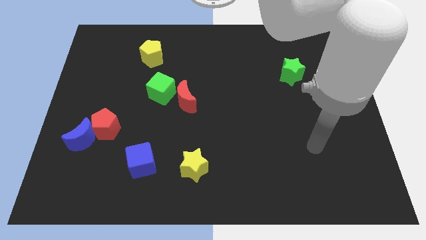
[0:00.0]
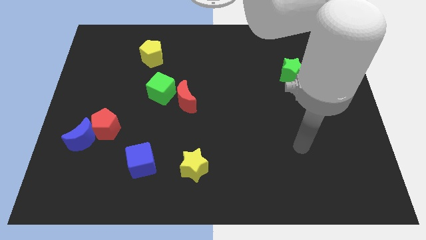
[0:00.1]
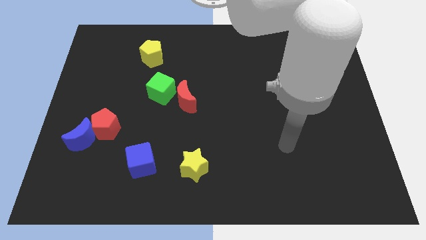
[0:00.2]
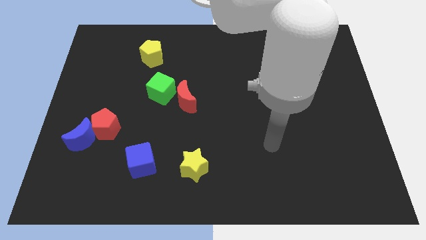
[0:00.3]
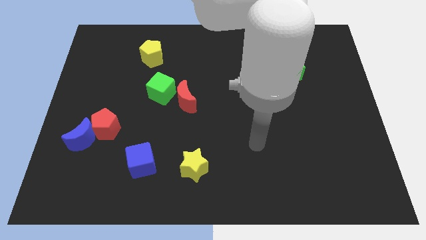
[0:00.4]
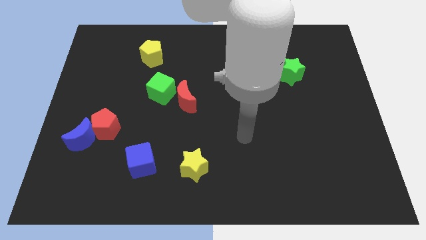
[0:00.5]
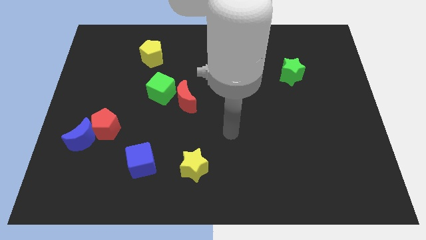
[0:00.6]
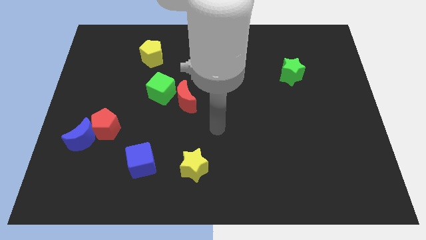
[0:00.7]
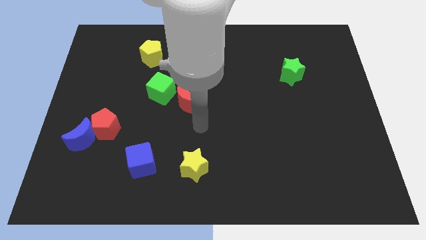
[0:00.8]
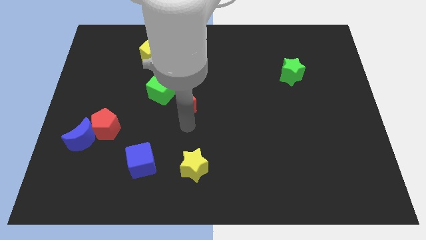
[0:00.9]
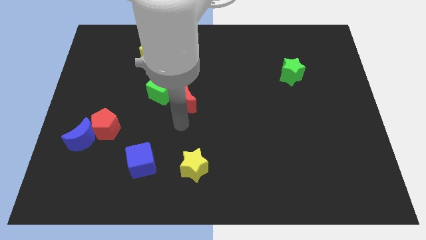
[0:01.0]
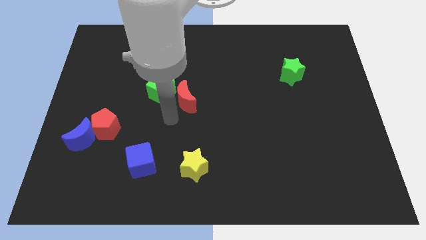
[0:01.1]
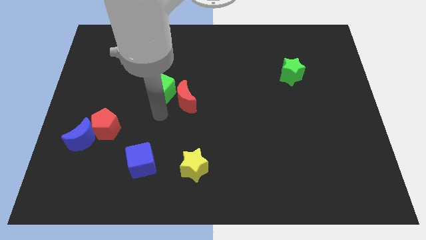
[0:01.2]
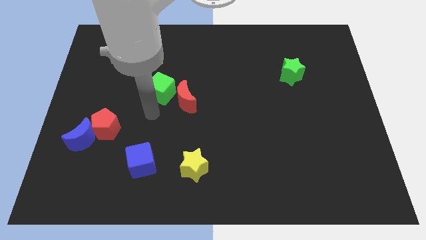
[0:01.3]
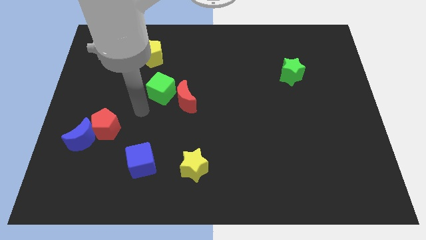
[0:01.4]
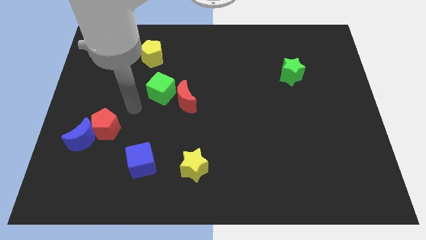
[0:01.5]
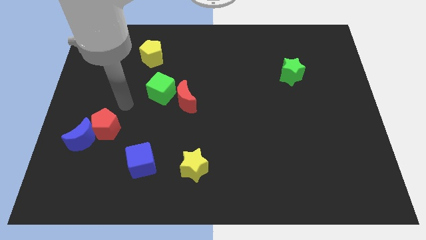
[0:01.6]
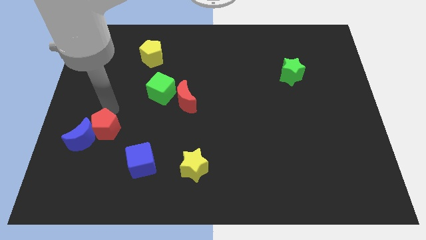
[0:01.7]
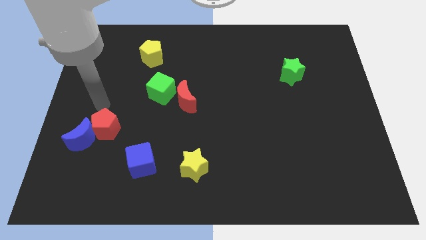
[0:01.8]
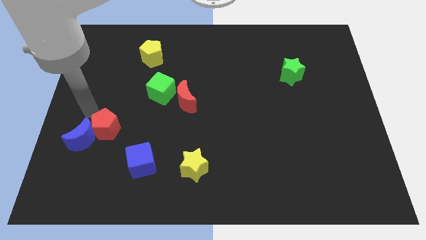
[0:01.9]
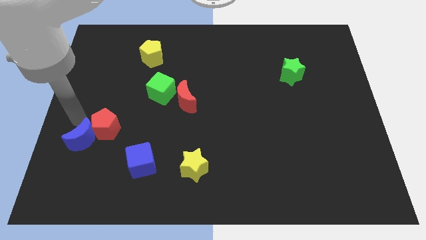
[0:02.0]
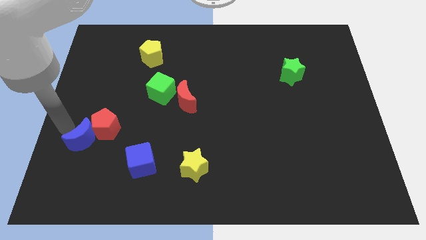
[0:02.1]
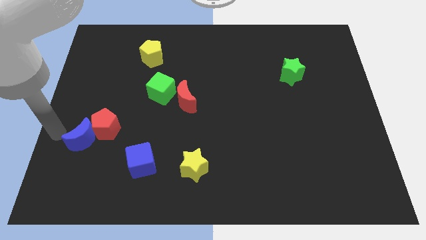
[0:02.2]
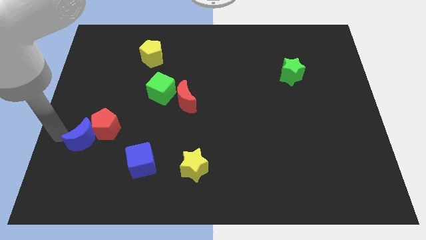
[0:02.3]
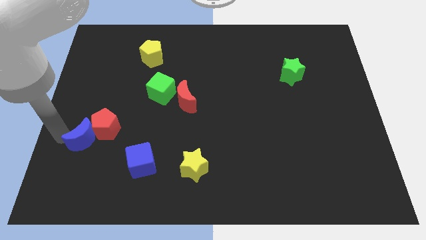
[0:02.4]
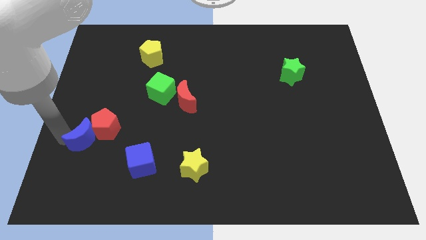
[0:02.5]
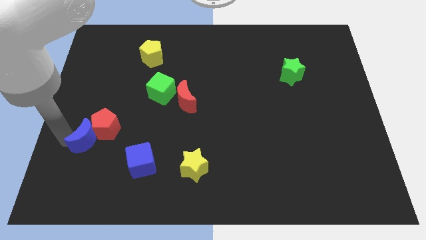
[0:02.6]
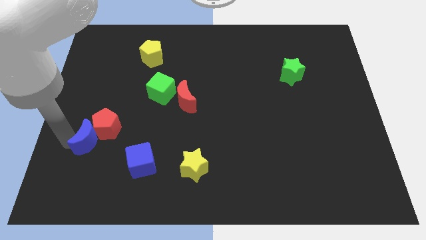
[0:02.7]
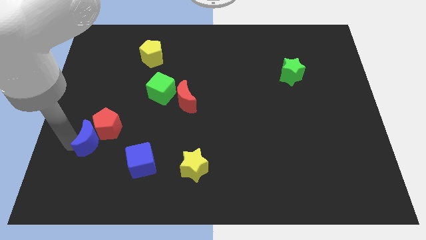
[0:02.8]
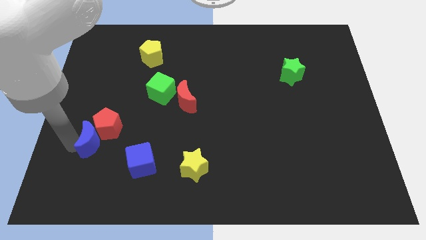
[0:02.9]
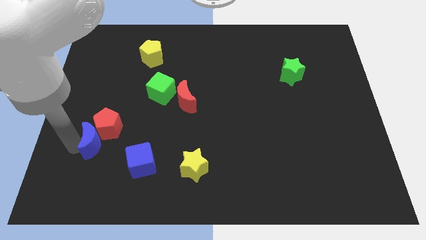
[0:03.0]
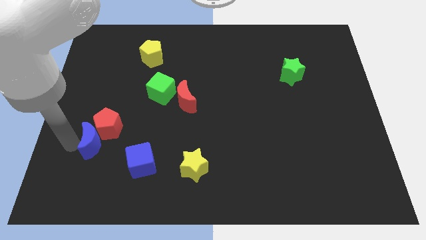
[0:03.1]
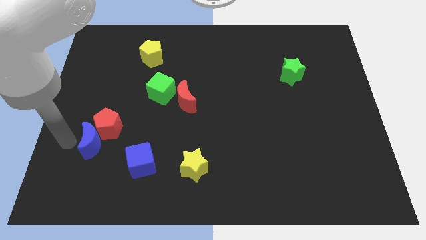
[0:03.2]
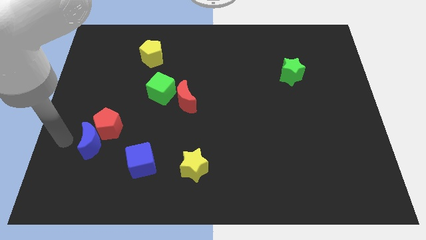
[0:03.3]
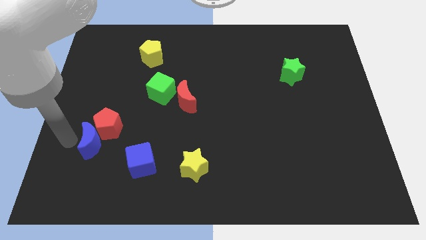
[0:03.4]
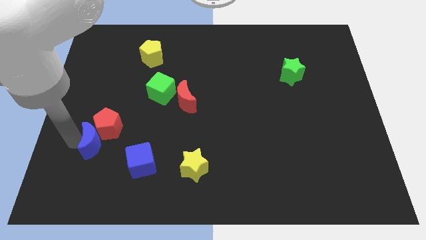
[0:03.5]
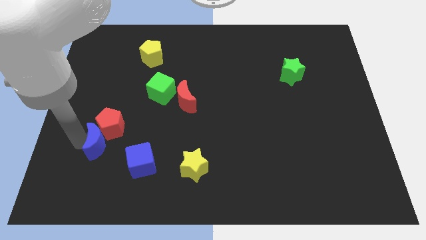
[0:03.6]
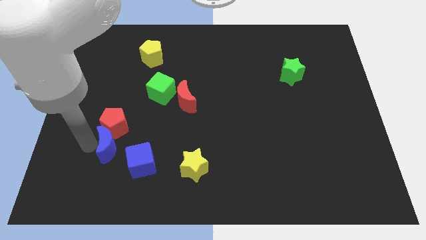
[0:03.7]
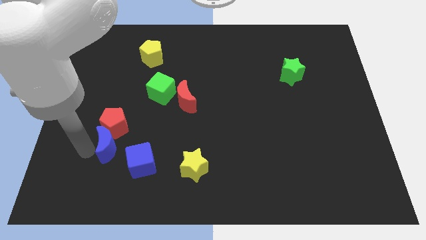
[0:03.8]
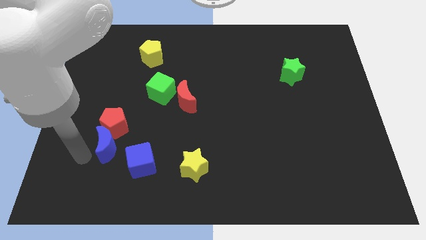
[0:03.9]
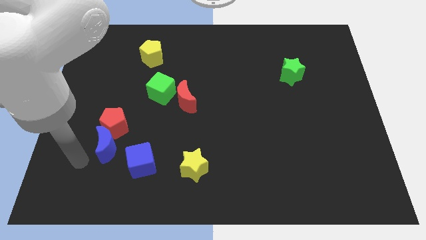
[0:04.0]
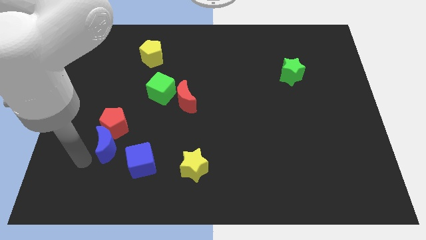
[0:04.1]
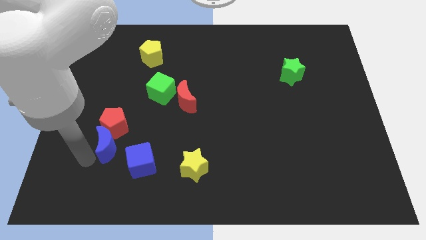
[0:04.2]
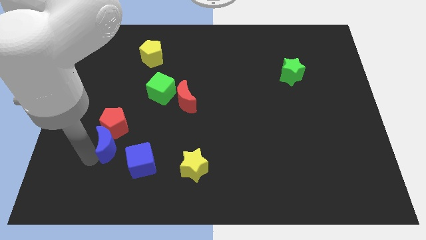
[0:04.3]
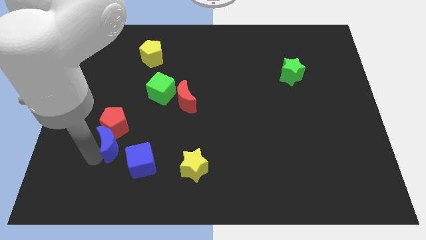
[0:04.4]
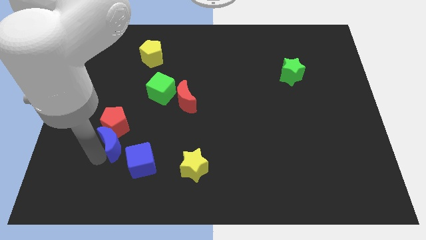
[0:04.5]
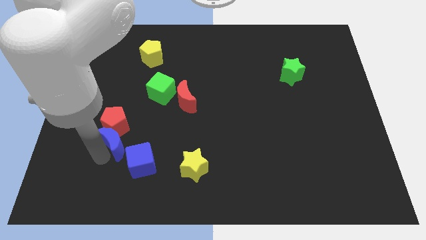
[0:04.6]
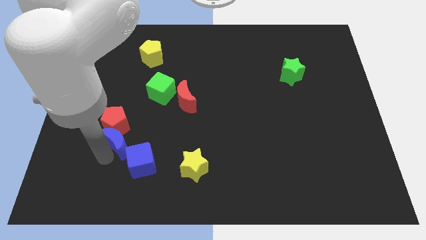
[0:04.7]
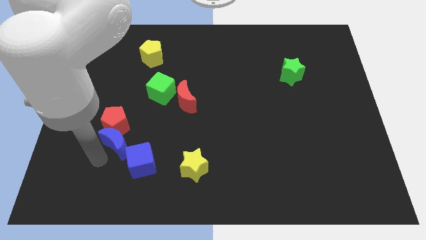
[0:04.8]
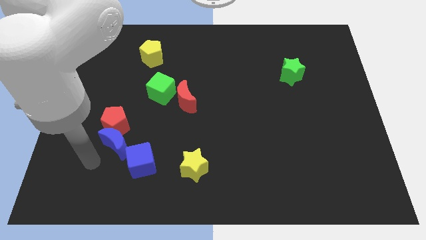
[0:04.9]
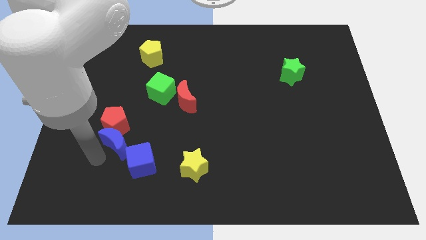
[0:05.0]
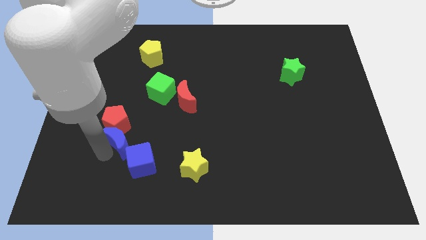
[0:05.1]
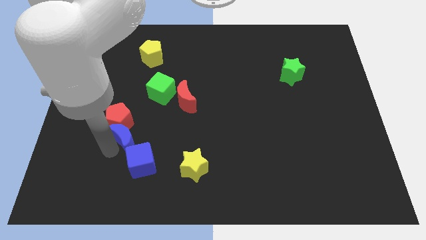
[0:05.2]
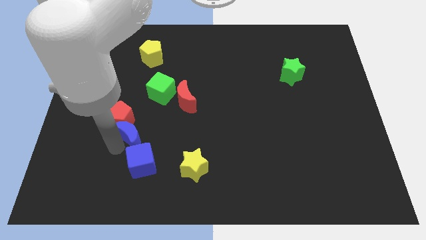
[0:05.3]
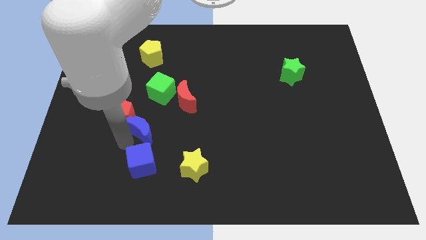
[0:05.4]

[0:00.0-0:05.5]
slide the blue moon to the bottom left side of the red moon

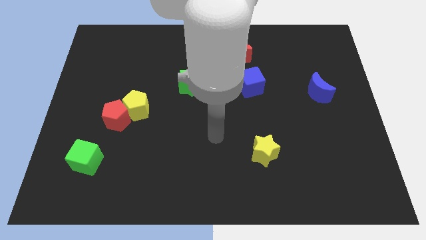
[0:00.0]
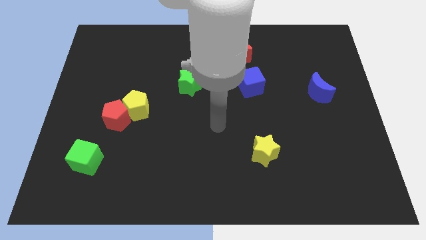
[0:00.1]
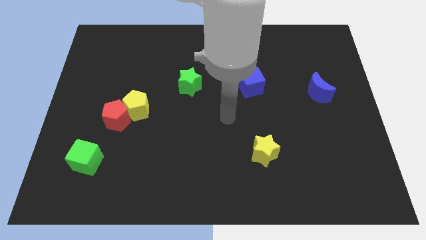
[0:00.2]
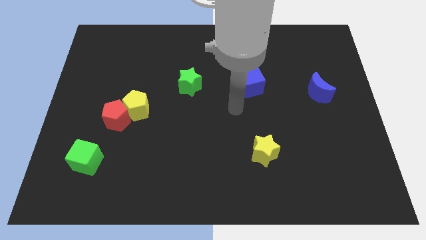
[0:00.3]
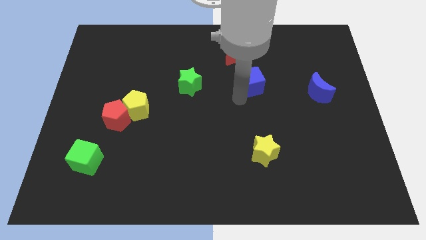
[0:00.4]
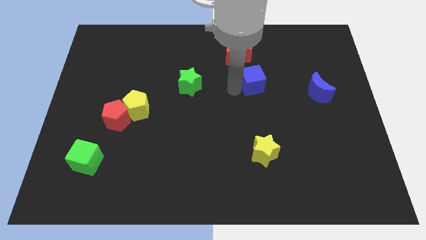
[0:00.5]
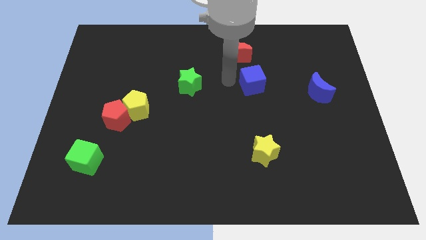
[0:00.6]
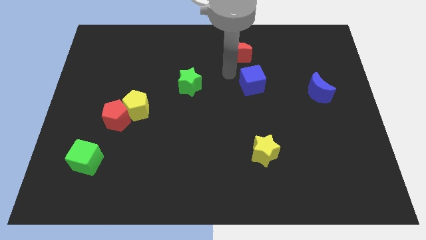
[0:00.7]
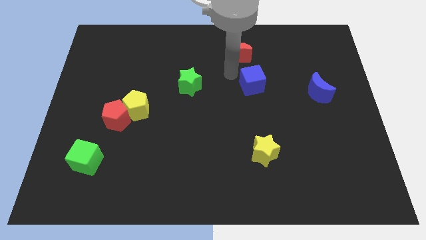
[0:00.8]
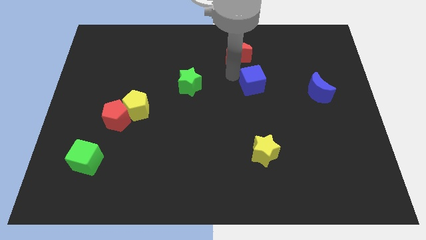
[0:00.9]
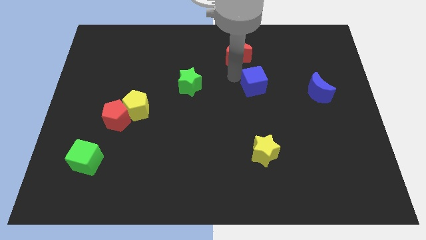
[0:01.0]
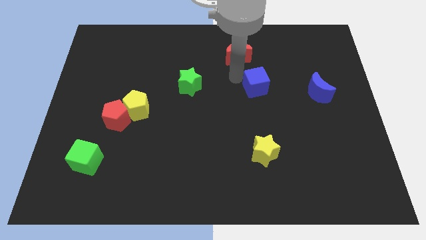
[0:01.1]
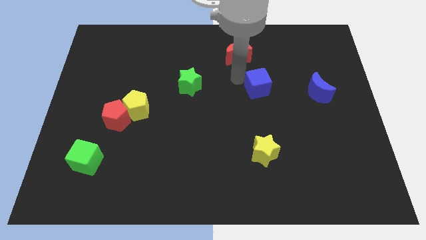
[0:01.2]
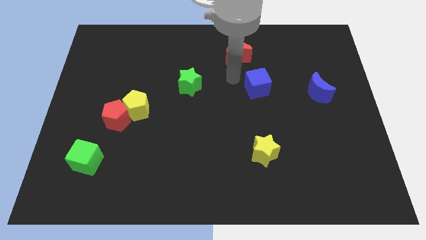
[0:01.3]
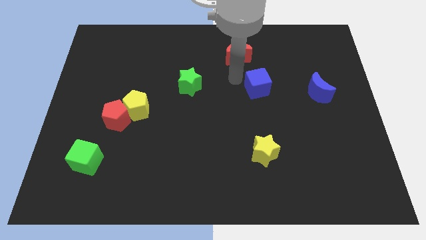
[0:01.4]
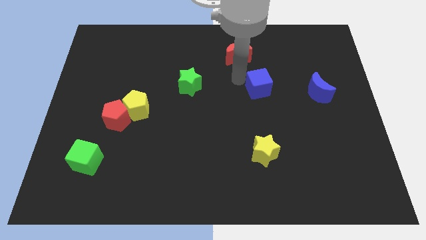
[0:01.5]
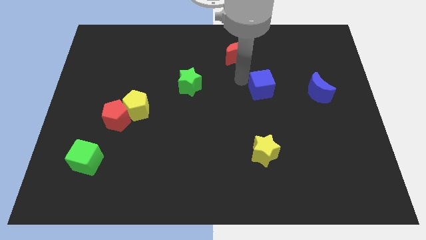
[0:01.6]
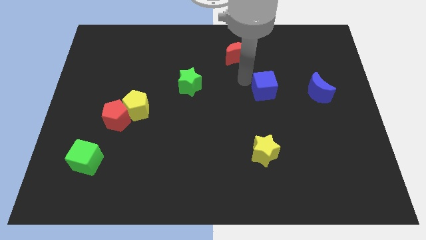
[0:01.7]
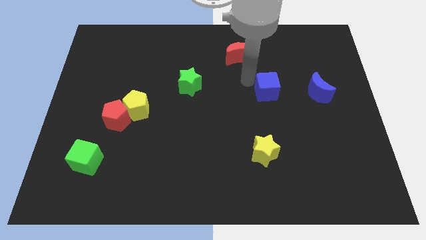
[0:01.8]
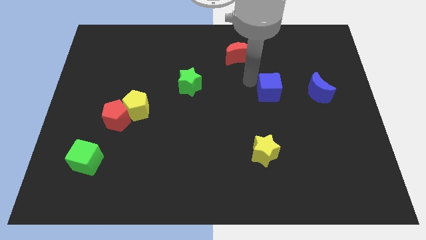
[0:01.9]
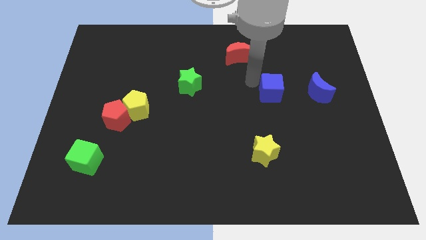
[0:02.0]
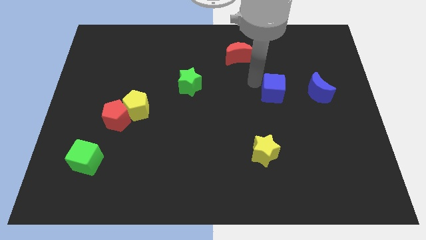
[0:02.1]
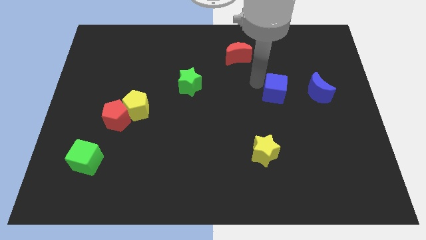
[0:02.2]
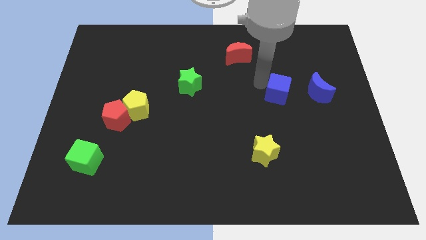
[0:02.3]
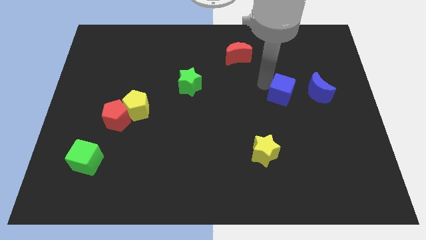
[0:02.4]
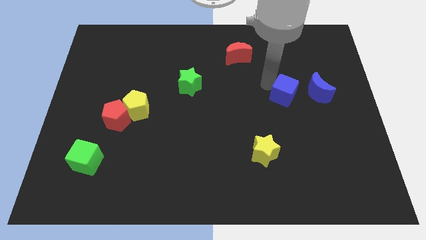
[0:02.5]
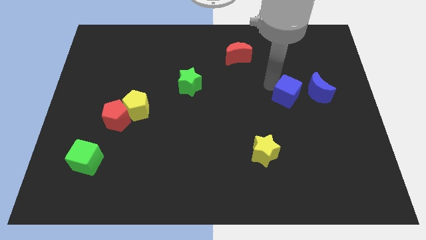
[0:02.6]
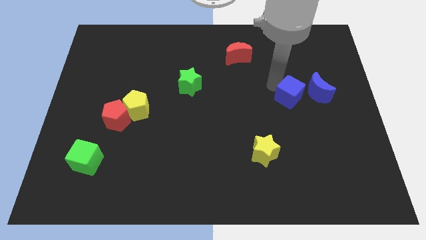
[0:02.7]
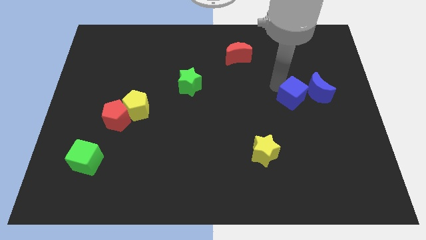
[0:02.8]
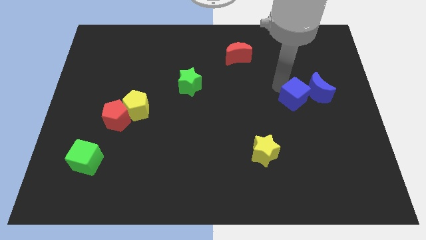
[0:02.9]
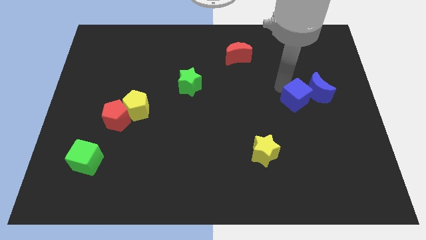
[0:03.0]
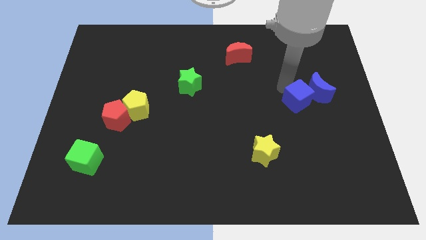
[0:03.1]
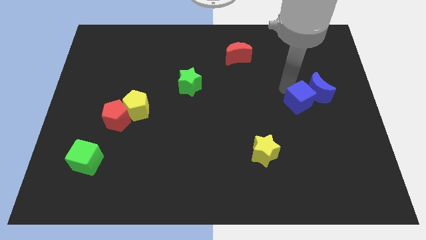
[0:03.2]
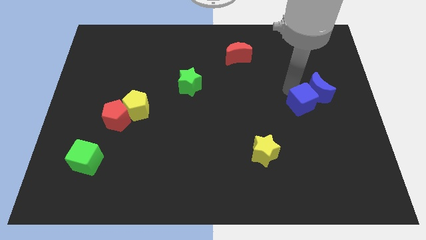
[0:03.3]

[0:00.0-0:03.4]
put the blue cube below the blue moon
